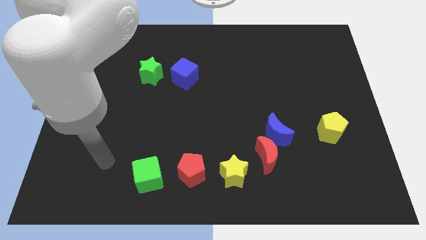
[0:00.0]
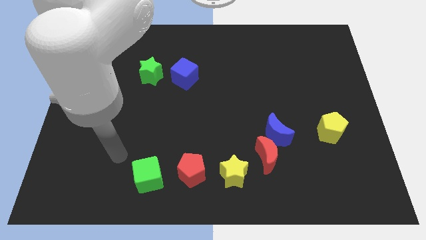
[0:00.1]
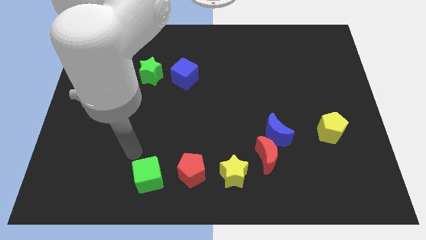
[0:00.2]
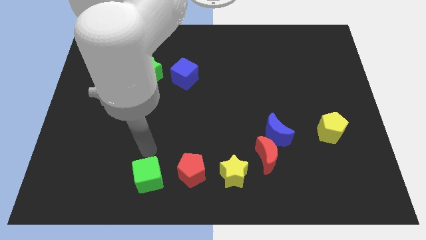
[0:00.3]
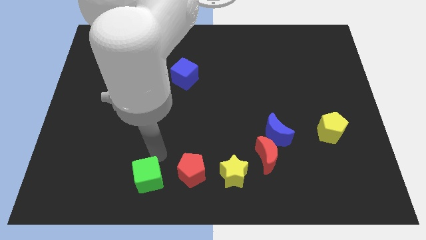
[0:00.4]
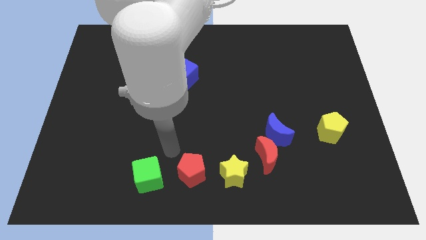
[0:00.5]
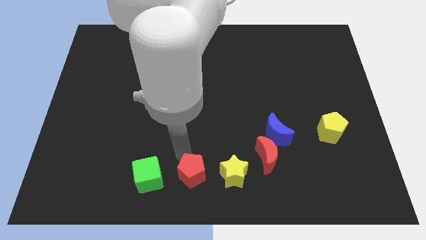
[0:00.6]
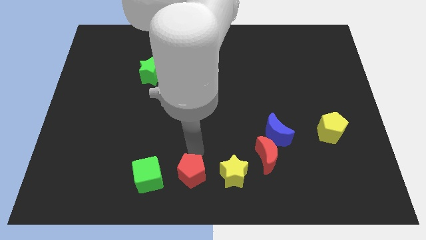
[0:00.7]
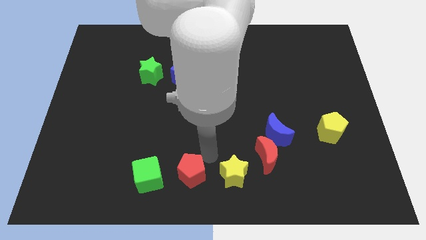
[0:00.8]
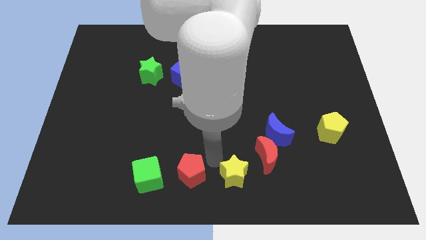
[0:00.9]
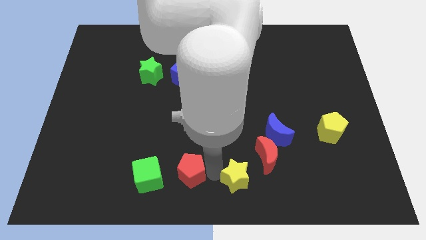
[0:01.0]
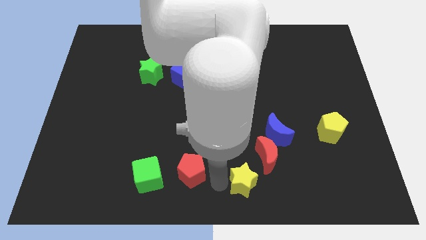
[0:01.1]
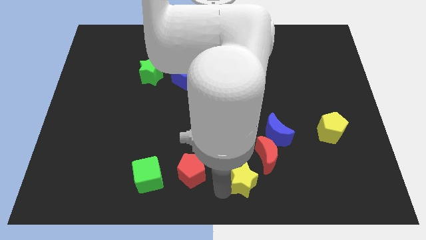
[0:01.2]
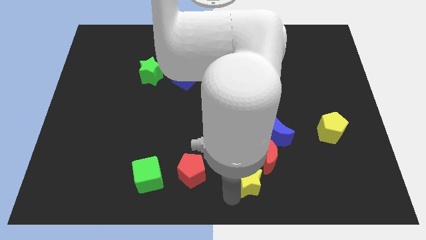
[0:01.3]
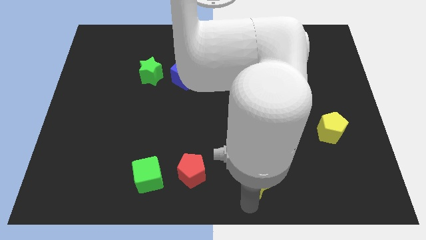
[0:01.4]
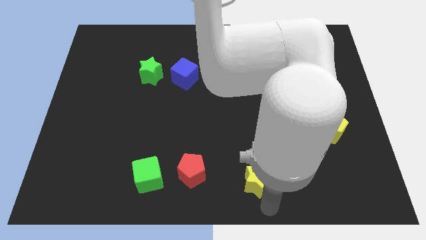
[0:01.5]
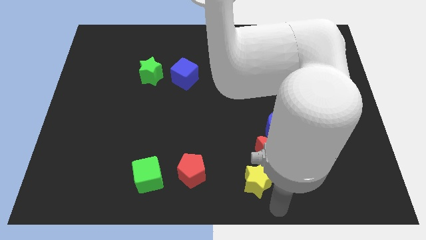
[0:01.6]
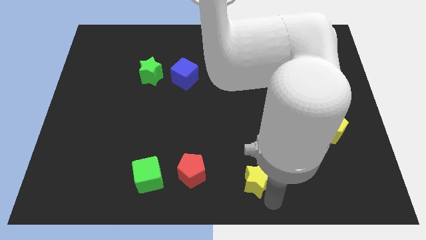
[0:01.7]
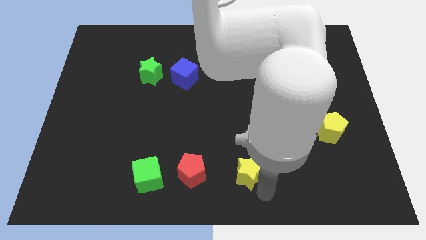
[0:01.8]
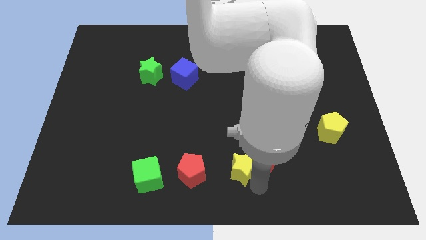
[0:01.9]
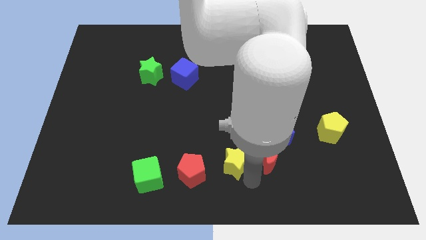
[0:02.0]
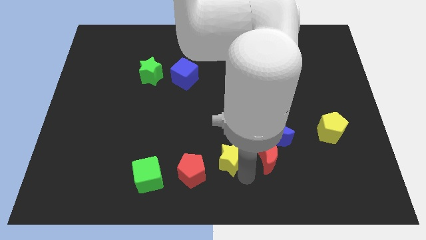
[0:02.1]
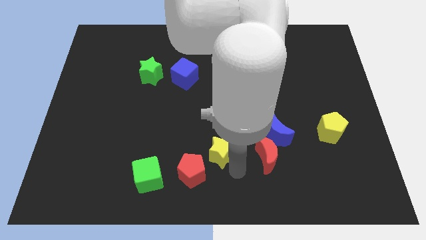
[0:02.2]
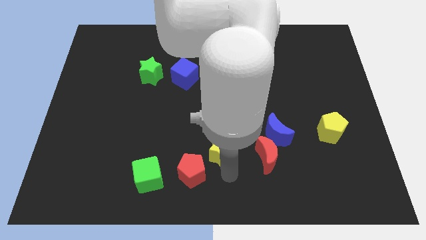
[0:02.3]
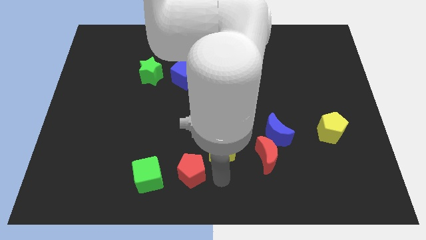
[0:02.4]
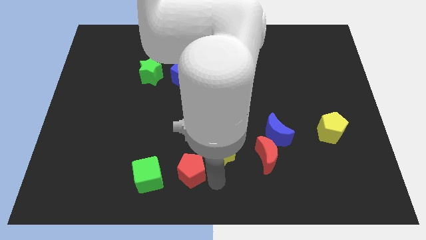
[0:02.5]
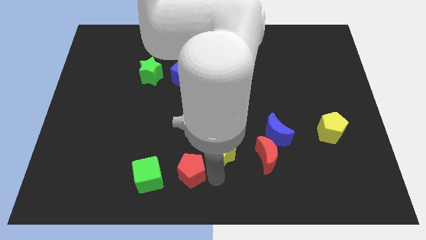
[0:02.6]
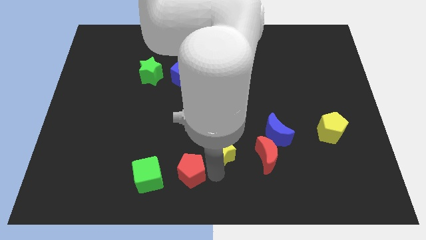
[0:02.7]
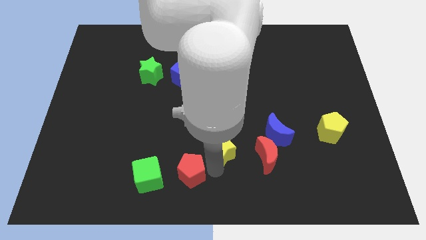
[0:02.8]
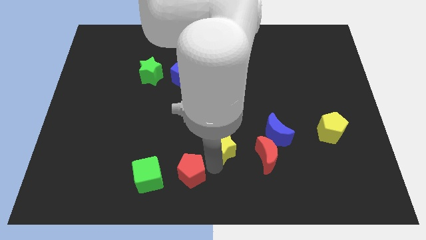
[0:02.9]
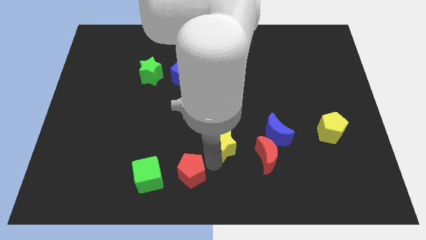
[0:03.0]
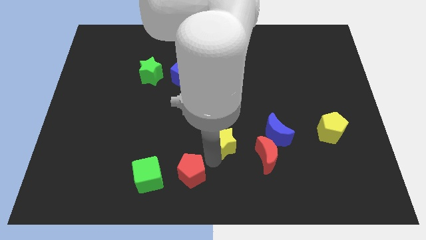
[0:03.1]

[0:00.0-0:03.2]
slide the yellow star upwards slightly

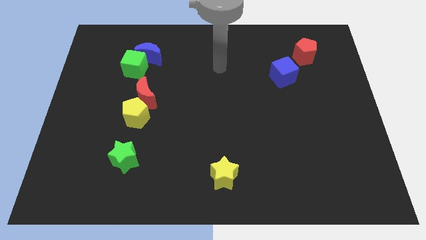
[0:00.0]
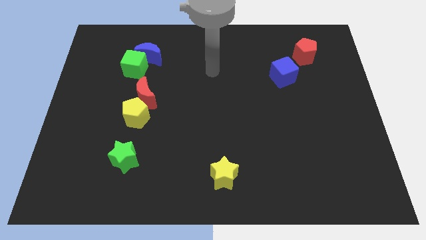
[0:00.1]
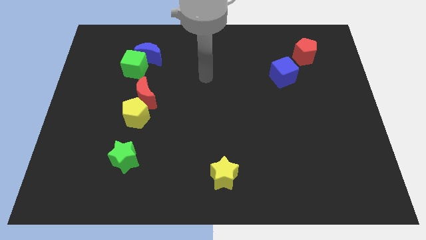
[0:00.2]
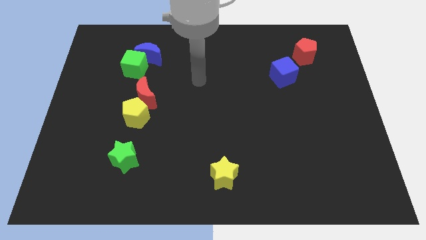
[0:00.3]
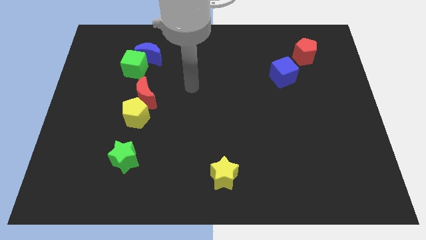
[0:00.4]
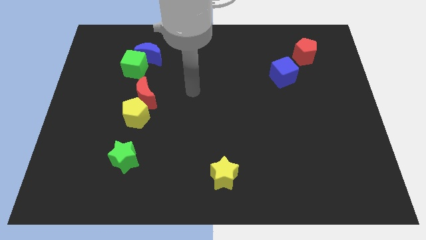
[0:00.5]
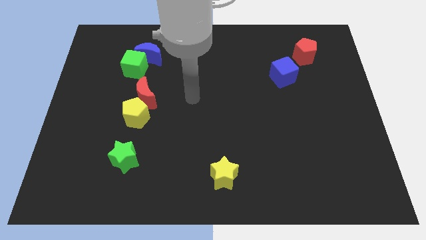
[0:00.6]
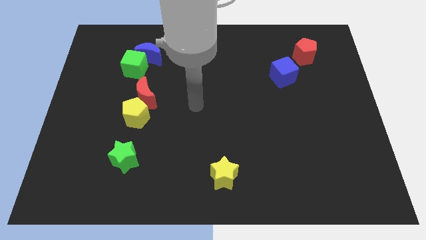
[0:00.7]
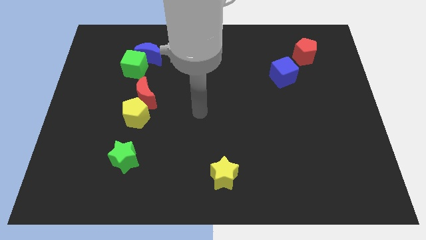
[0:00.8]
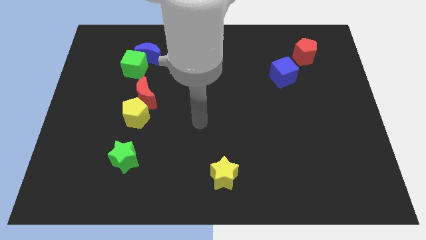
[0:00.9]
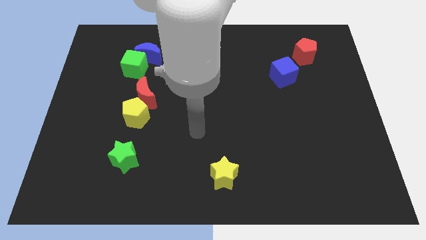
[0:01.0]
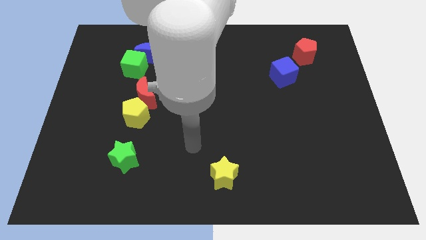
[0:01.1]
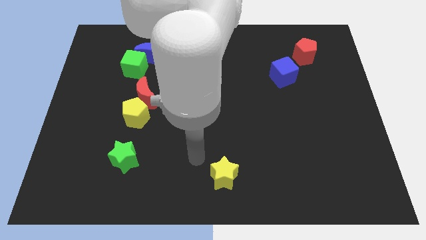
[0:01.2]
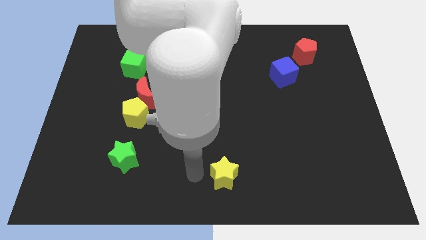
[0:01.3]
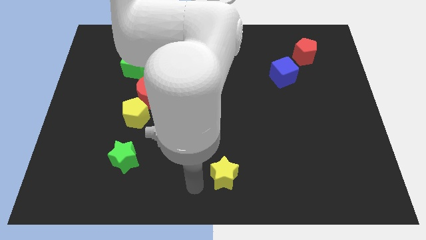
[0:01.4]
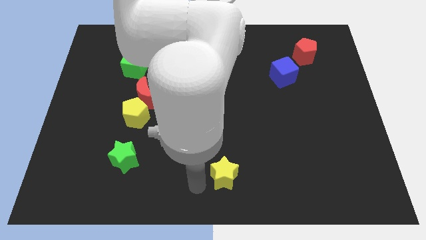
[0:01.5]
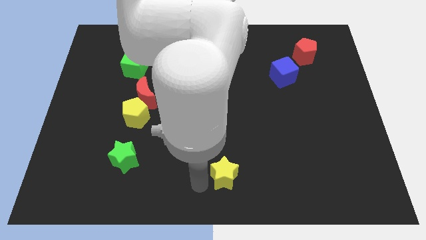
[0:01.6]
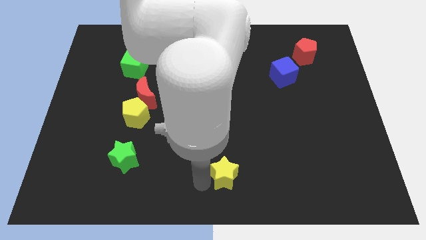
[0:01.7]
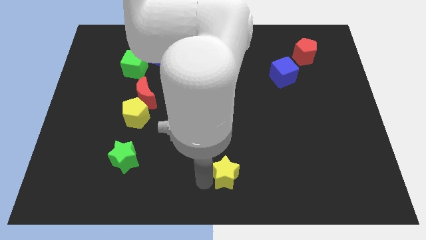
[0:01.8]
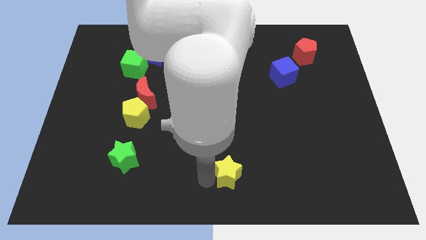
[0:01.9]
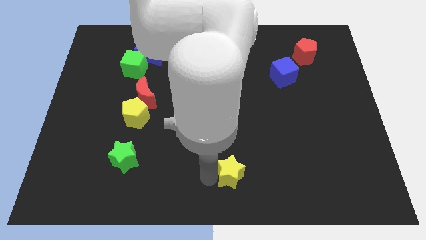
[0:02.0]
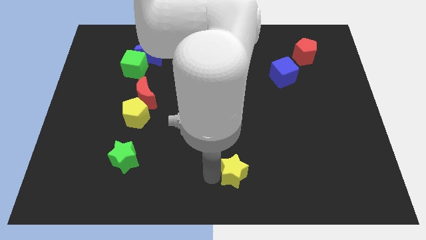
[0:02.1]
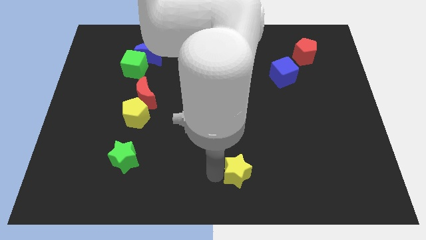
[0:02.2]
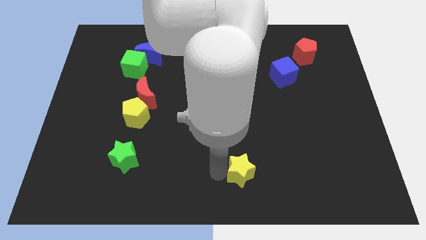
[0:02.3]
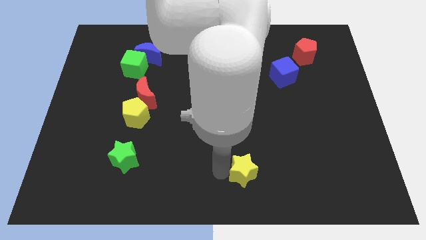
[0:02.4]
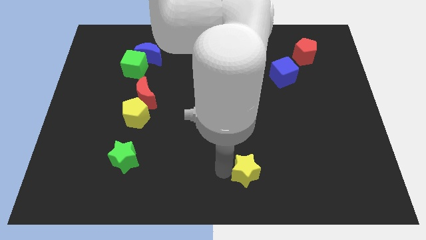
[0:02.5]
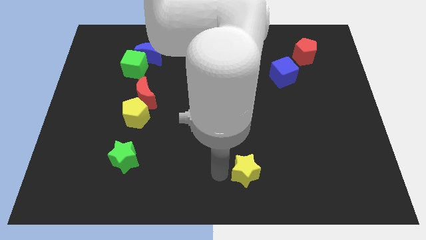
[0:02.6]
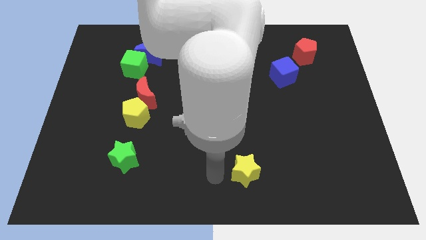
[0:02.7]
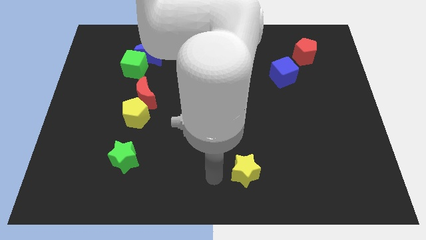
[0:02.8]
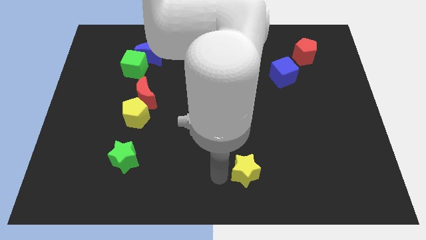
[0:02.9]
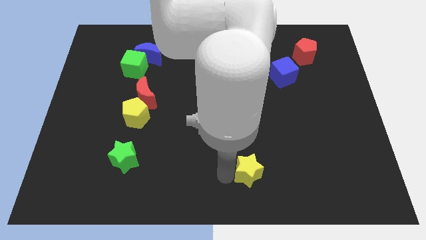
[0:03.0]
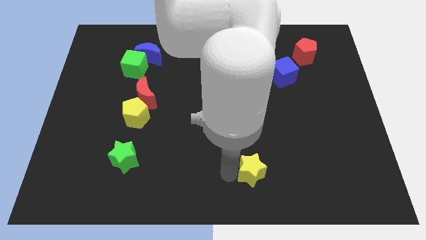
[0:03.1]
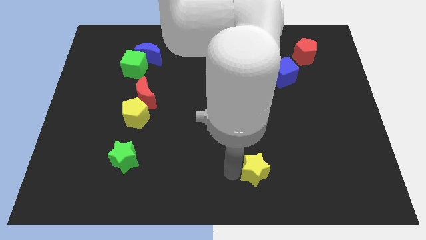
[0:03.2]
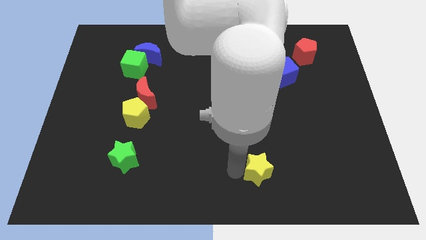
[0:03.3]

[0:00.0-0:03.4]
slightly slide the yellow star right

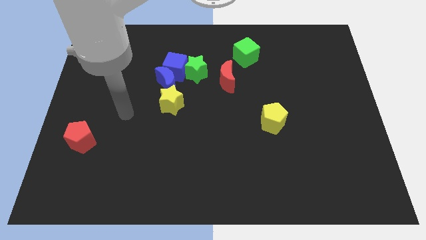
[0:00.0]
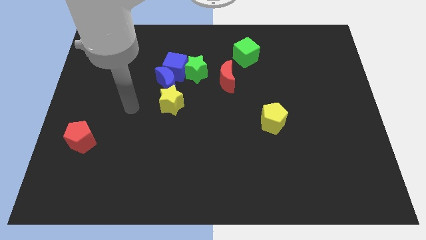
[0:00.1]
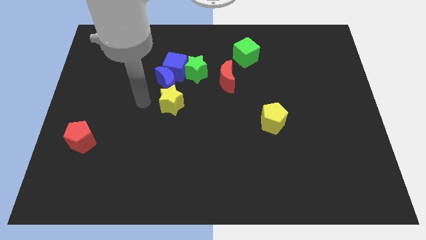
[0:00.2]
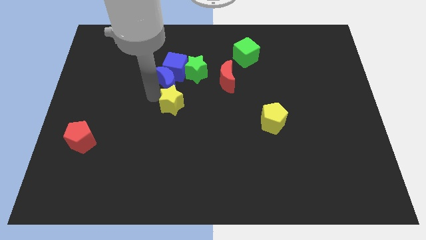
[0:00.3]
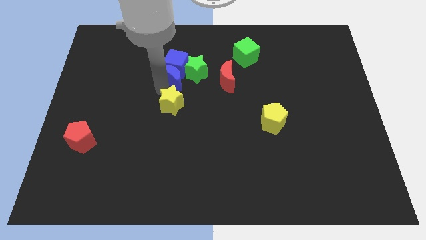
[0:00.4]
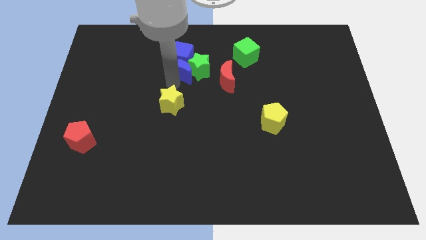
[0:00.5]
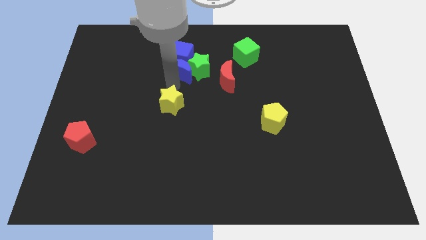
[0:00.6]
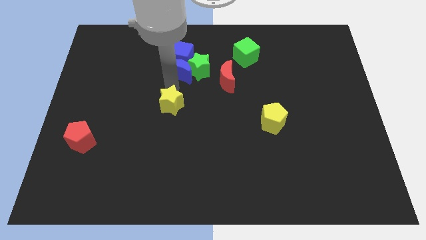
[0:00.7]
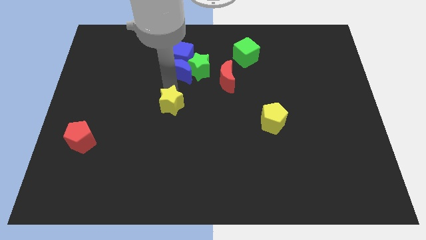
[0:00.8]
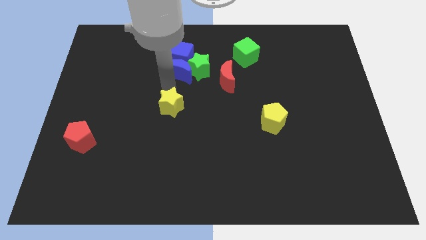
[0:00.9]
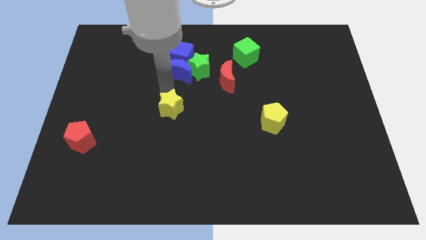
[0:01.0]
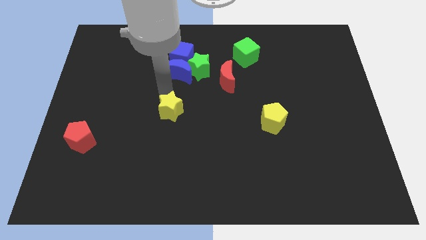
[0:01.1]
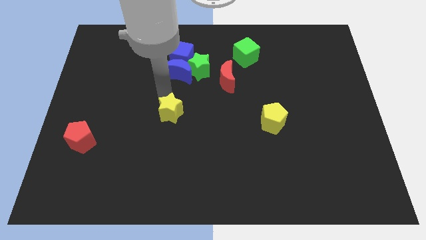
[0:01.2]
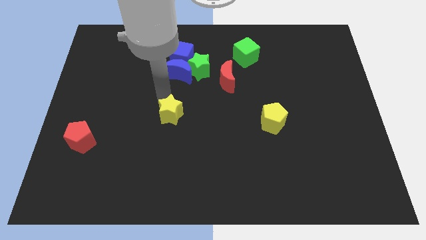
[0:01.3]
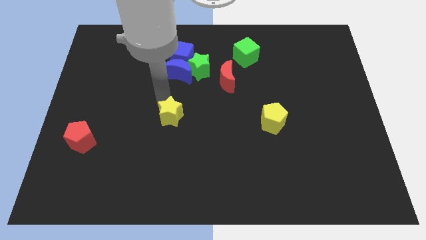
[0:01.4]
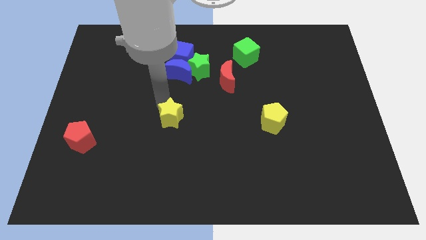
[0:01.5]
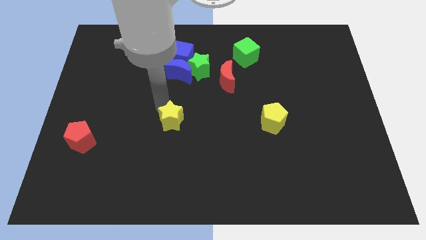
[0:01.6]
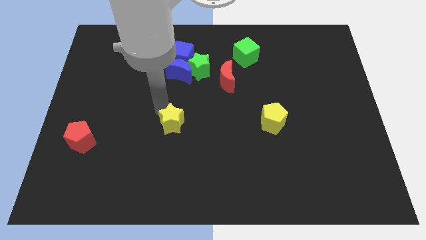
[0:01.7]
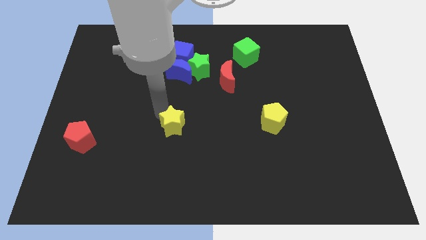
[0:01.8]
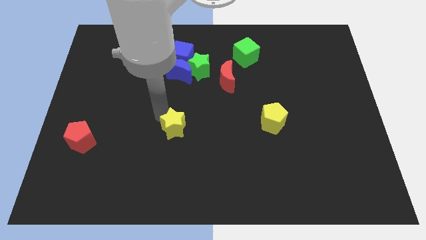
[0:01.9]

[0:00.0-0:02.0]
move the yellow star downwards a bit
